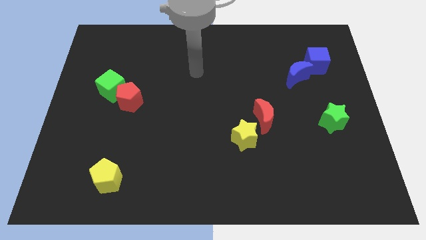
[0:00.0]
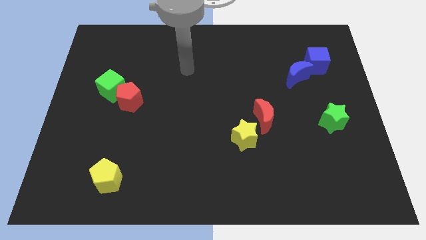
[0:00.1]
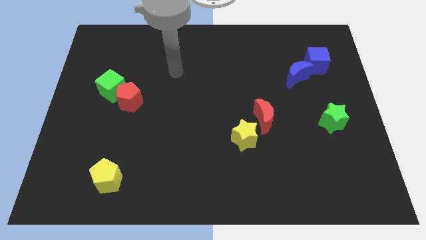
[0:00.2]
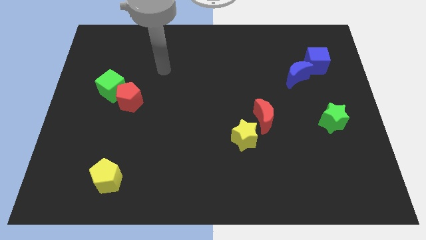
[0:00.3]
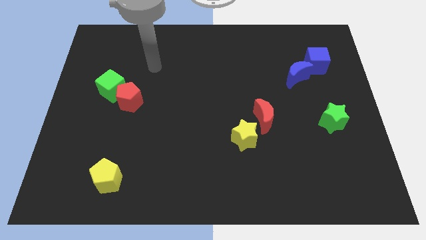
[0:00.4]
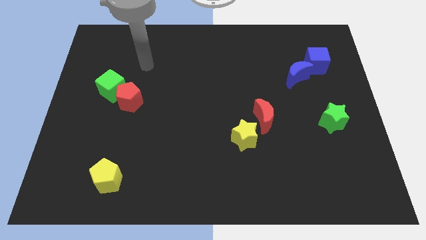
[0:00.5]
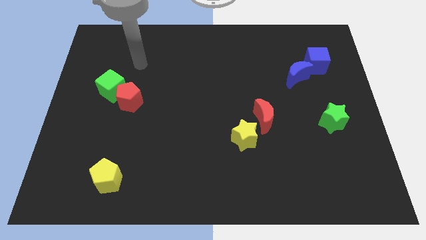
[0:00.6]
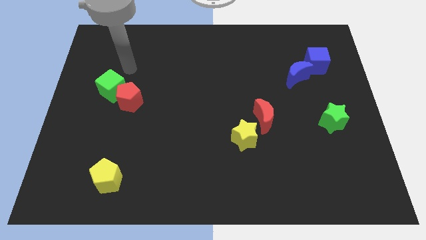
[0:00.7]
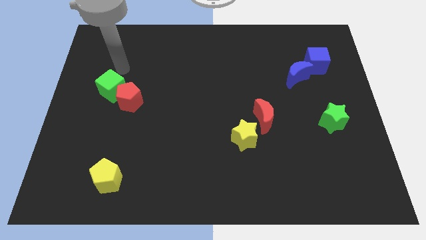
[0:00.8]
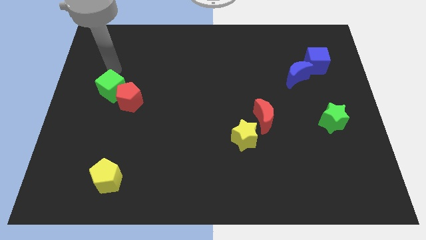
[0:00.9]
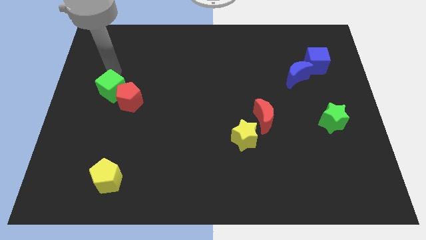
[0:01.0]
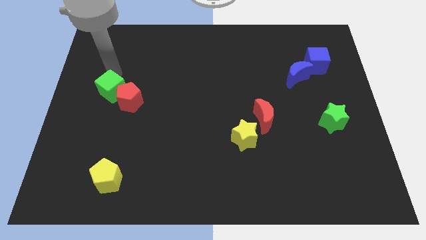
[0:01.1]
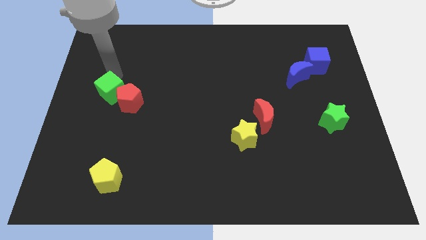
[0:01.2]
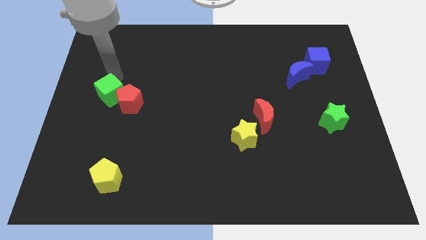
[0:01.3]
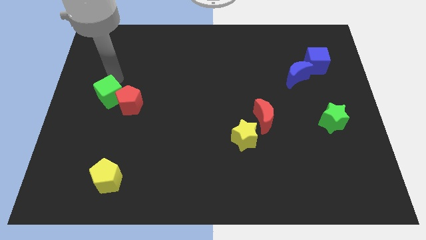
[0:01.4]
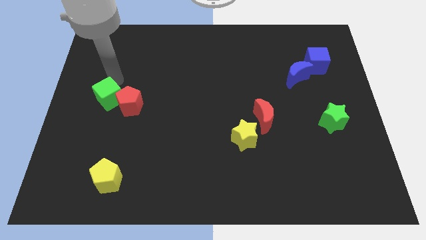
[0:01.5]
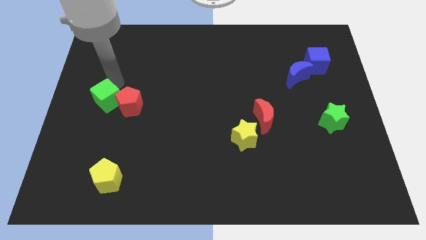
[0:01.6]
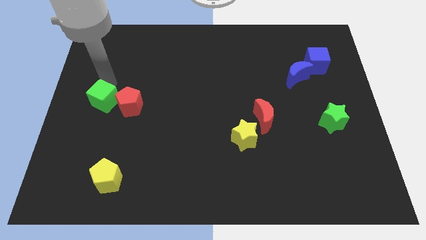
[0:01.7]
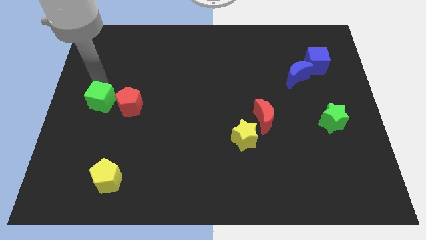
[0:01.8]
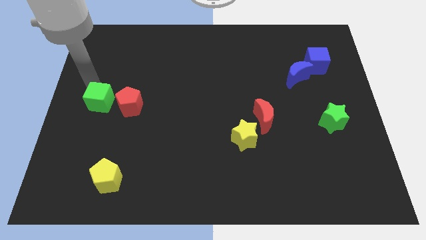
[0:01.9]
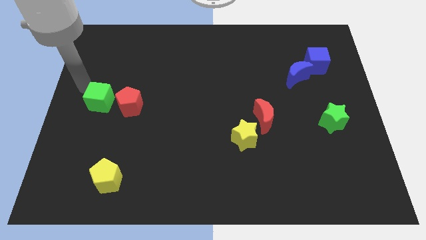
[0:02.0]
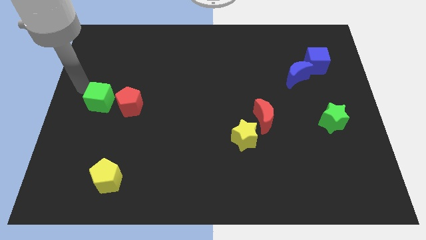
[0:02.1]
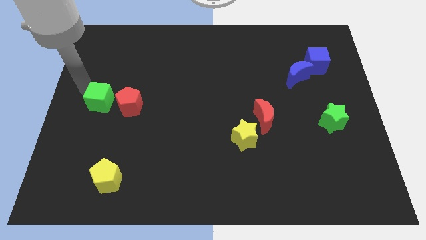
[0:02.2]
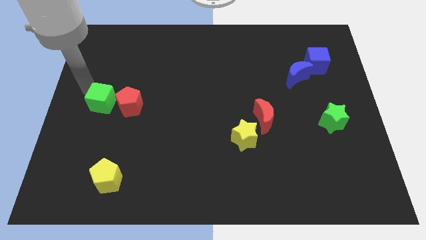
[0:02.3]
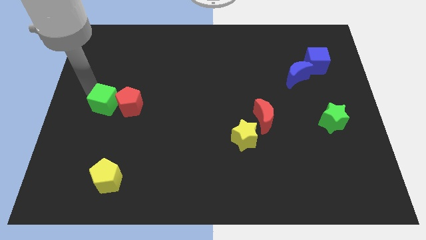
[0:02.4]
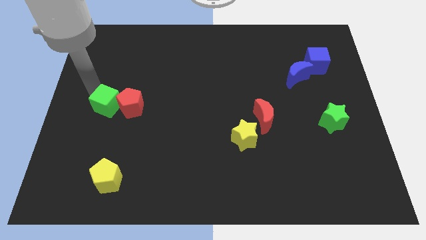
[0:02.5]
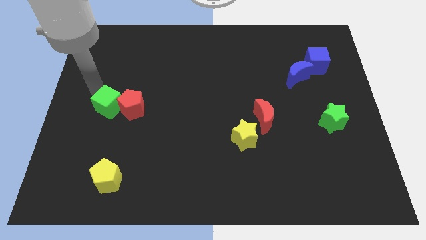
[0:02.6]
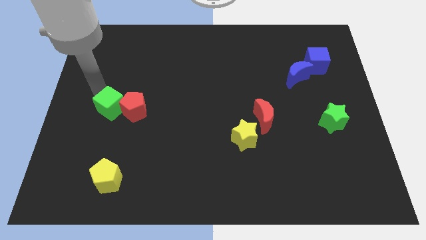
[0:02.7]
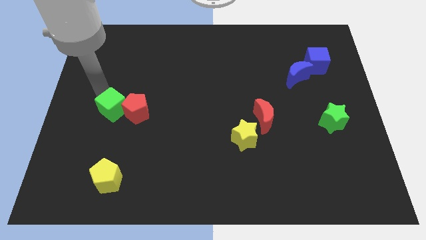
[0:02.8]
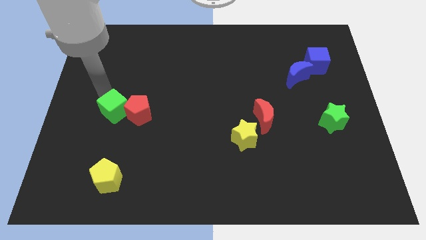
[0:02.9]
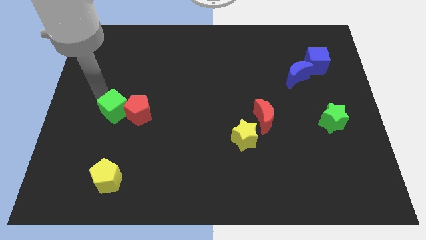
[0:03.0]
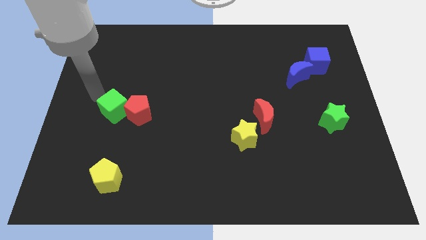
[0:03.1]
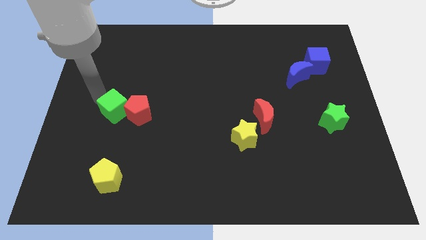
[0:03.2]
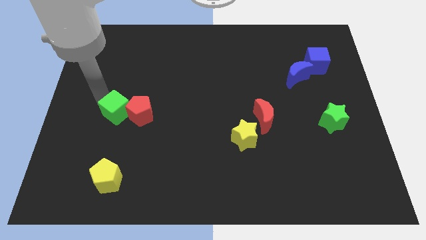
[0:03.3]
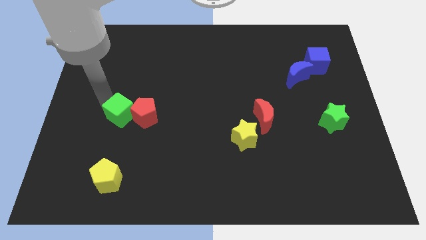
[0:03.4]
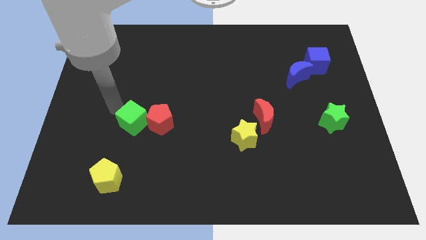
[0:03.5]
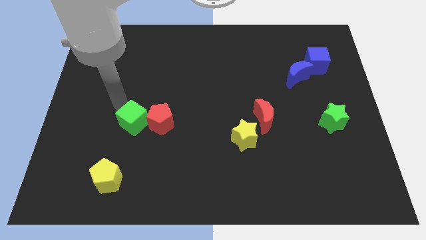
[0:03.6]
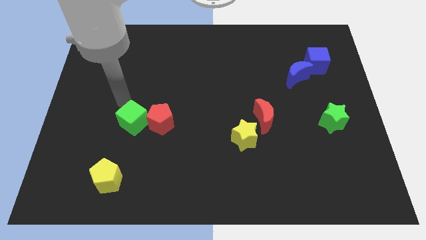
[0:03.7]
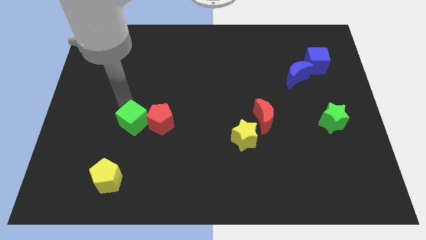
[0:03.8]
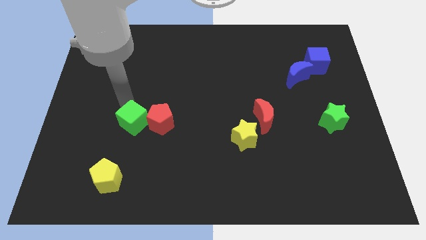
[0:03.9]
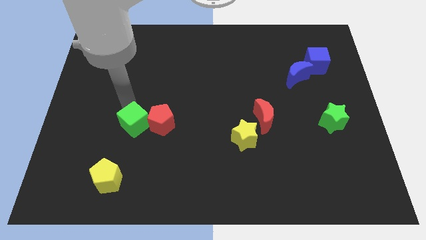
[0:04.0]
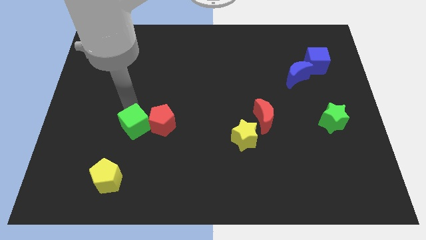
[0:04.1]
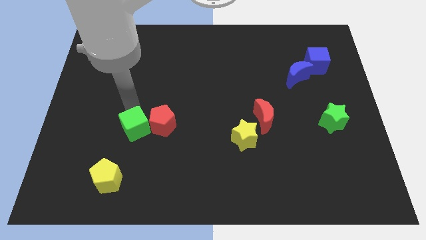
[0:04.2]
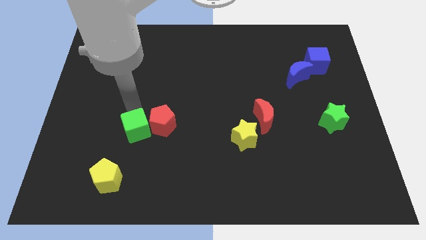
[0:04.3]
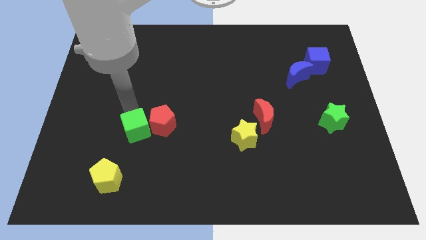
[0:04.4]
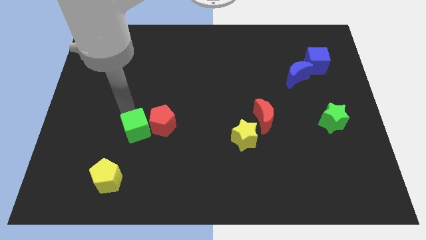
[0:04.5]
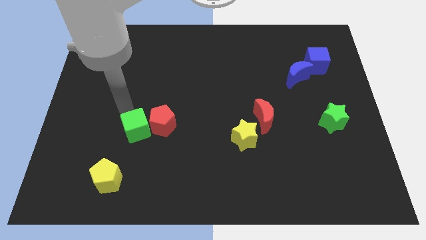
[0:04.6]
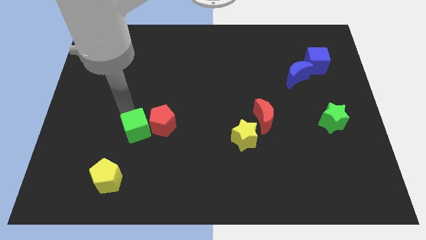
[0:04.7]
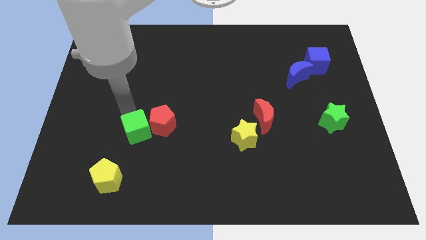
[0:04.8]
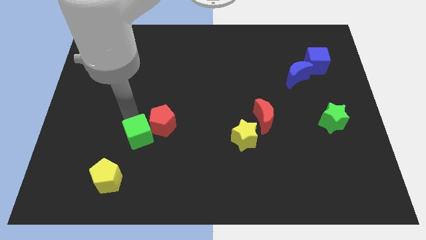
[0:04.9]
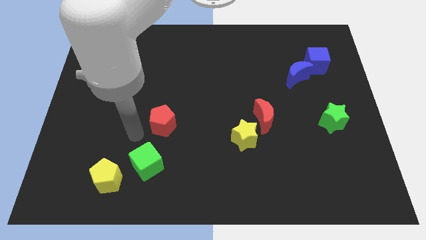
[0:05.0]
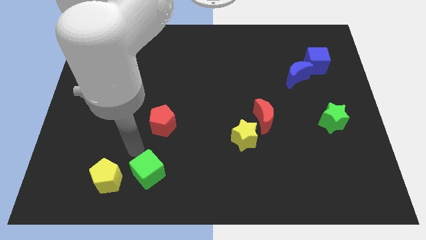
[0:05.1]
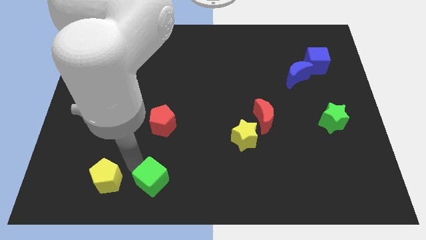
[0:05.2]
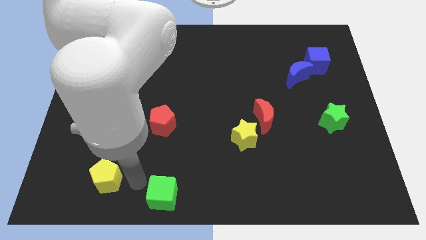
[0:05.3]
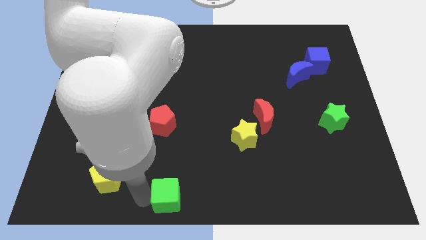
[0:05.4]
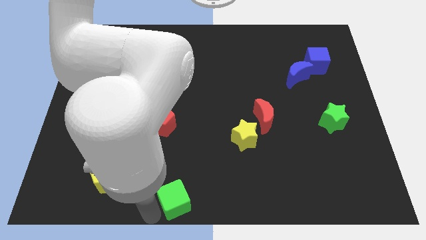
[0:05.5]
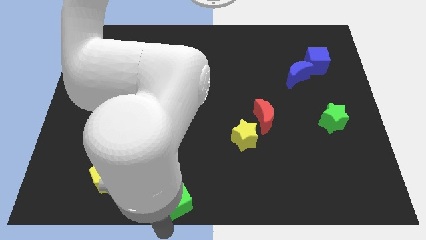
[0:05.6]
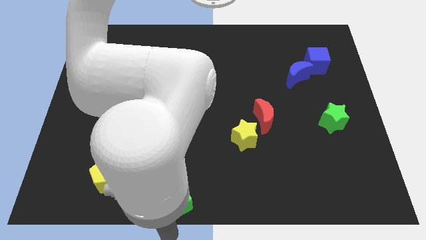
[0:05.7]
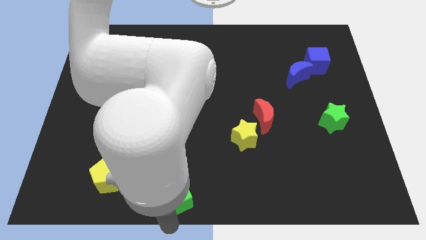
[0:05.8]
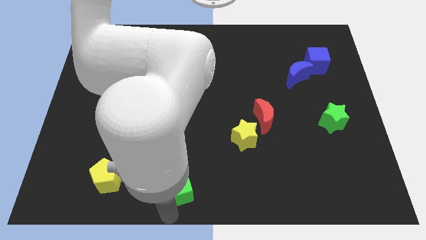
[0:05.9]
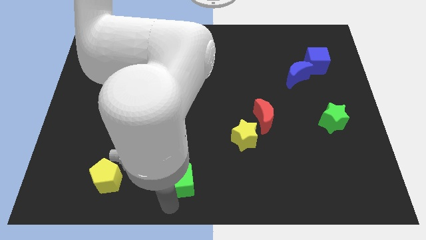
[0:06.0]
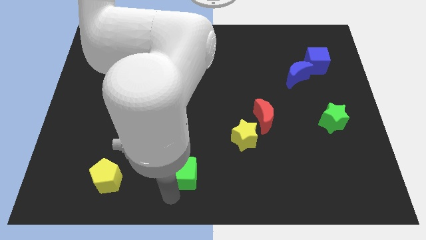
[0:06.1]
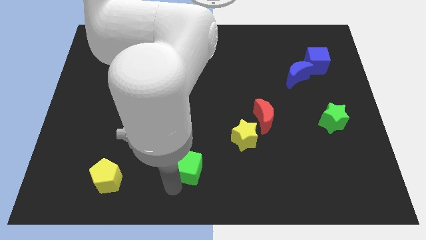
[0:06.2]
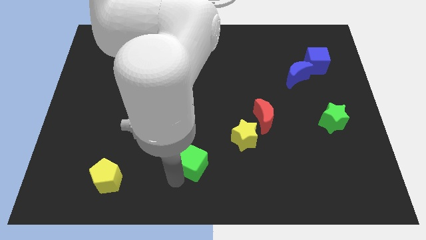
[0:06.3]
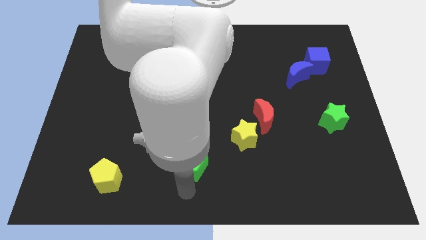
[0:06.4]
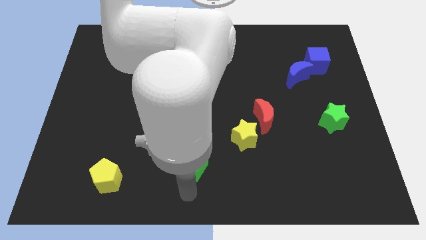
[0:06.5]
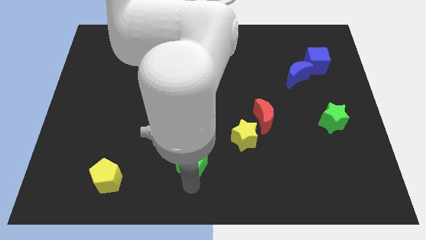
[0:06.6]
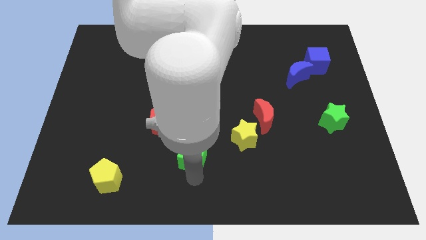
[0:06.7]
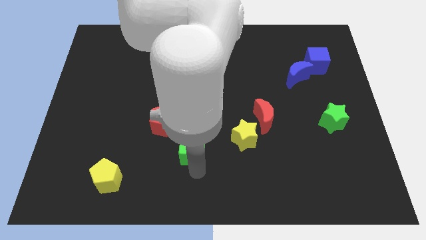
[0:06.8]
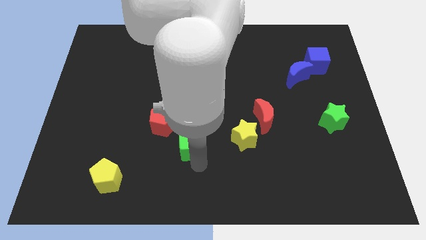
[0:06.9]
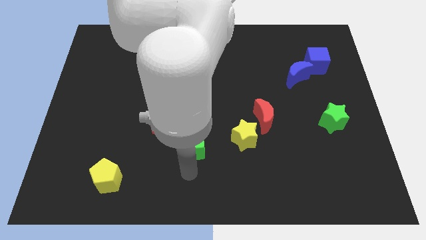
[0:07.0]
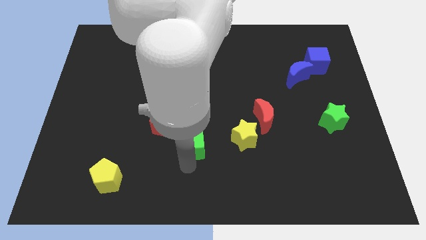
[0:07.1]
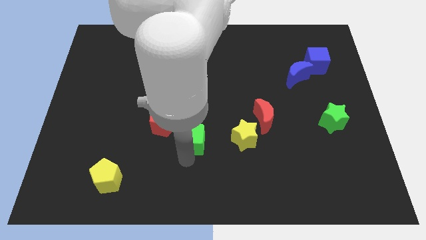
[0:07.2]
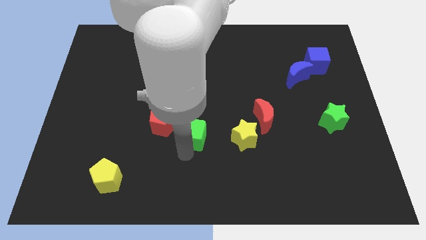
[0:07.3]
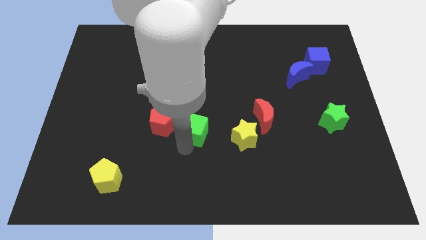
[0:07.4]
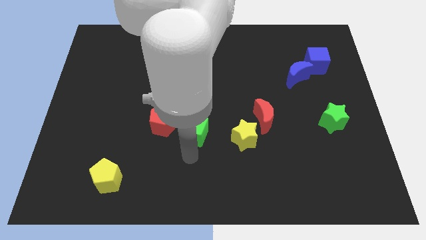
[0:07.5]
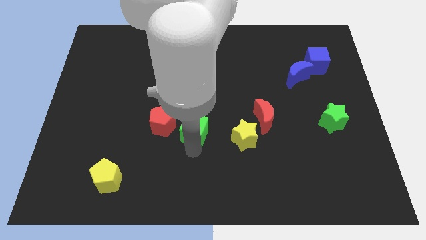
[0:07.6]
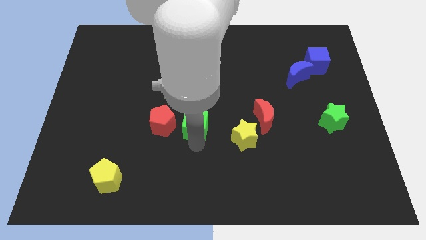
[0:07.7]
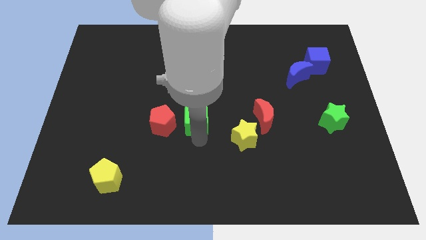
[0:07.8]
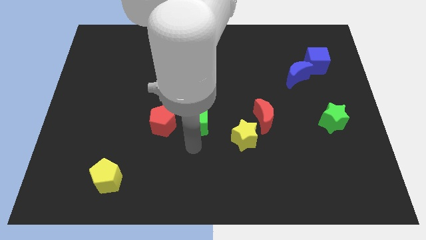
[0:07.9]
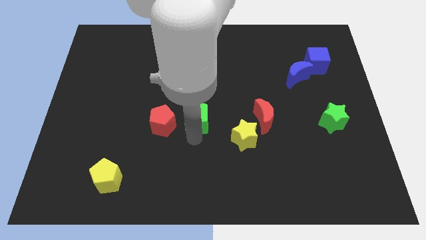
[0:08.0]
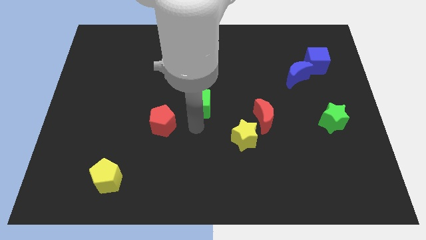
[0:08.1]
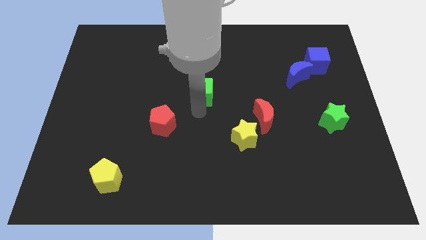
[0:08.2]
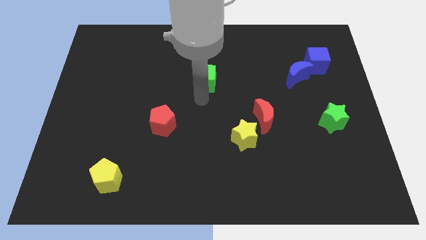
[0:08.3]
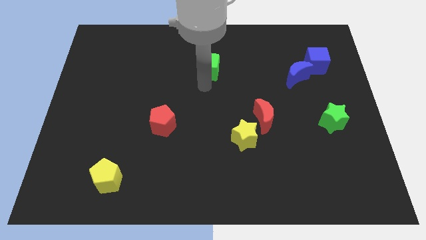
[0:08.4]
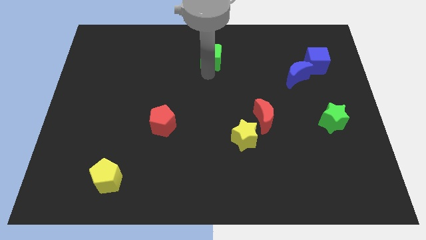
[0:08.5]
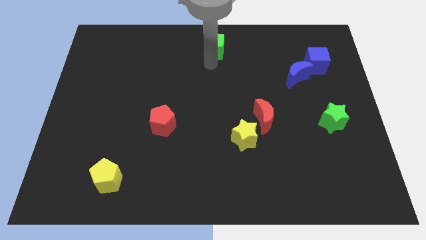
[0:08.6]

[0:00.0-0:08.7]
slide the green cube to the top side
